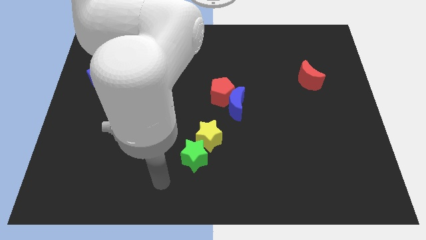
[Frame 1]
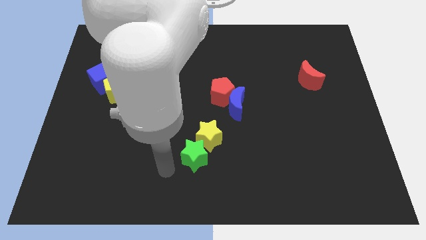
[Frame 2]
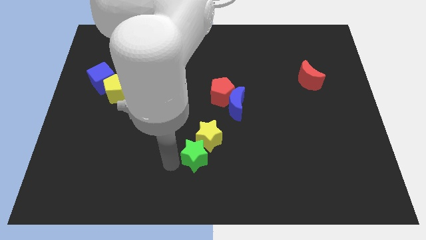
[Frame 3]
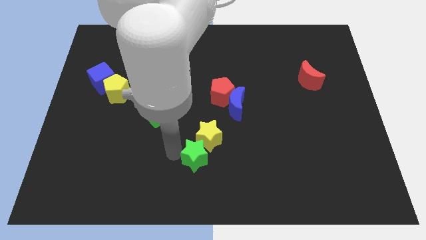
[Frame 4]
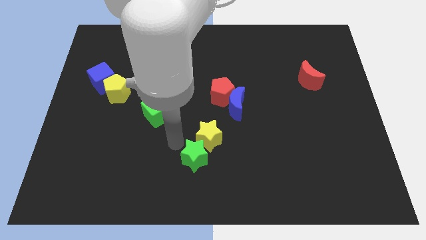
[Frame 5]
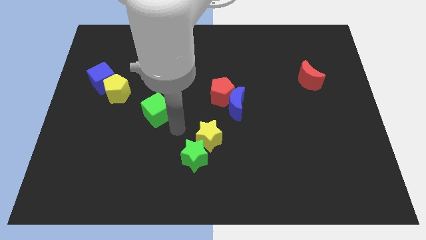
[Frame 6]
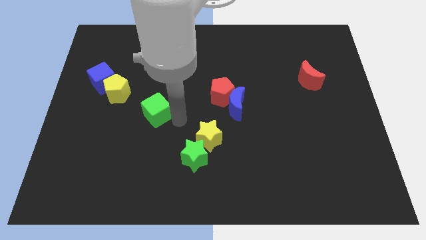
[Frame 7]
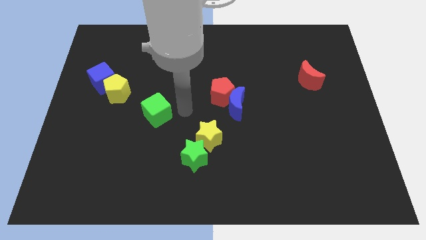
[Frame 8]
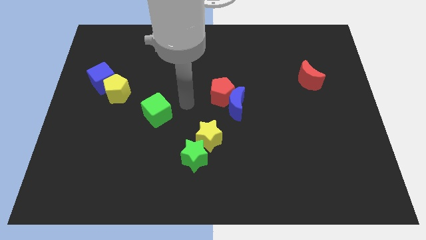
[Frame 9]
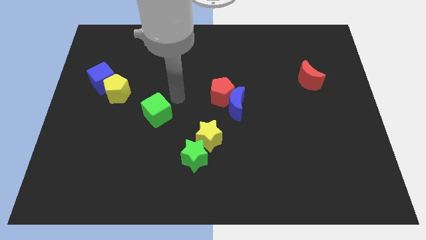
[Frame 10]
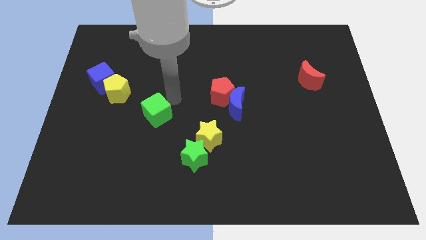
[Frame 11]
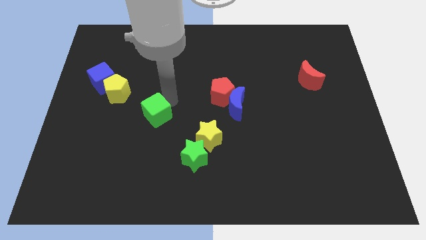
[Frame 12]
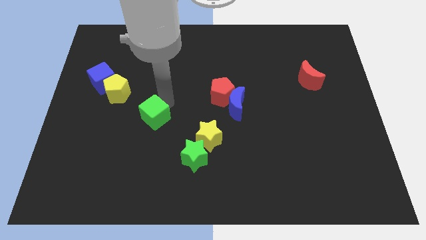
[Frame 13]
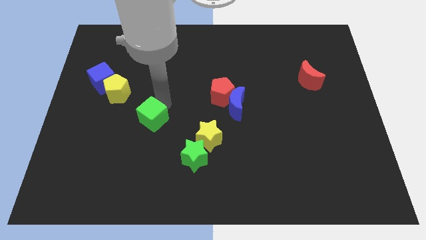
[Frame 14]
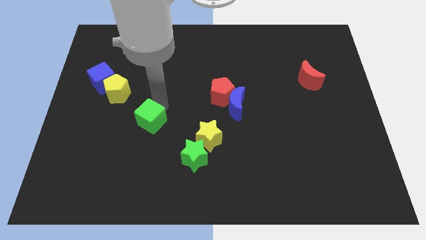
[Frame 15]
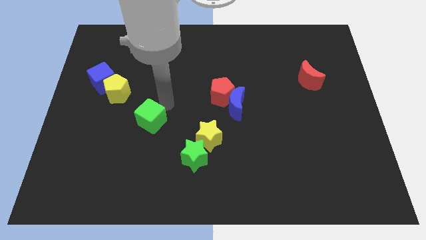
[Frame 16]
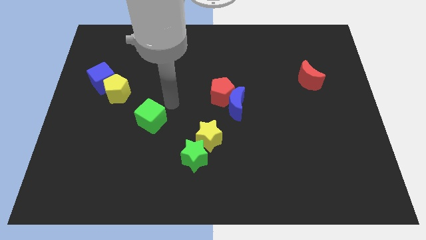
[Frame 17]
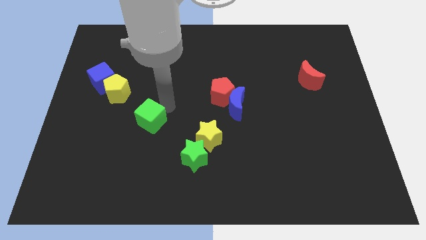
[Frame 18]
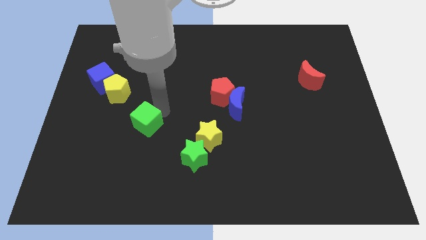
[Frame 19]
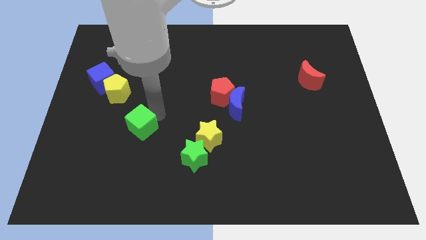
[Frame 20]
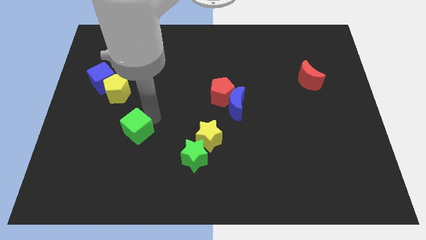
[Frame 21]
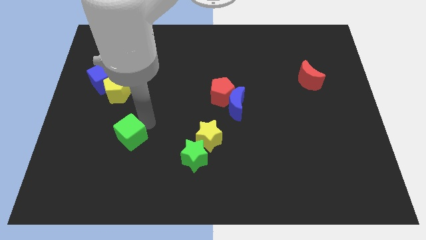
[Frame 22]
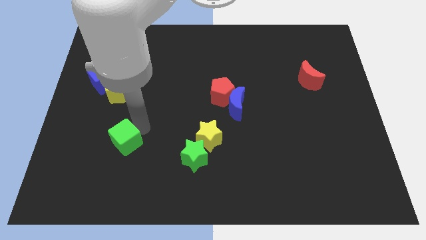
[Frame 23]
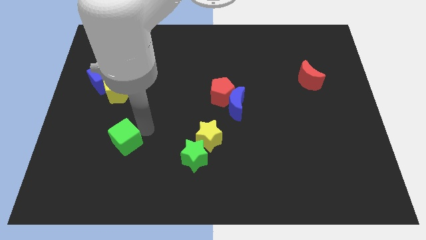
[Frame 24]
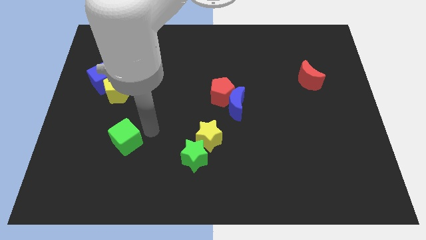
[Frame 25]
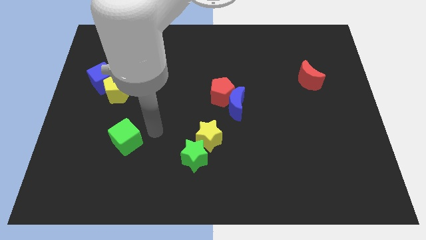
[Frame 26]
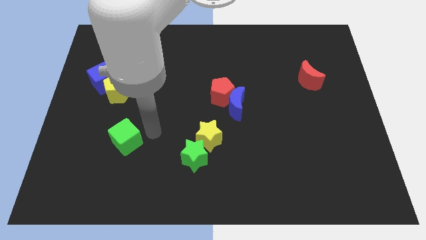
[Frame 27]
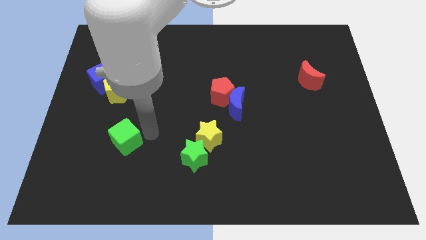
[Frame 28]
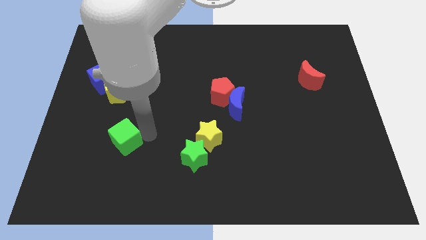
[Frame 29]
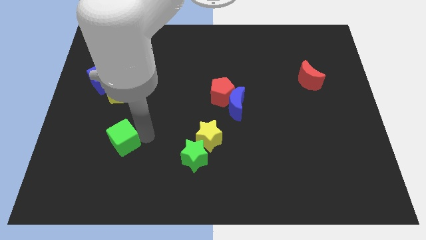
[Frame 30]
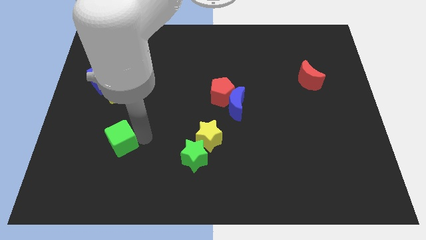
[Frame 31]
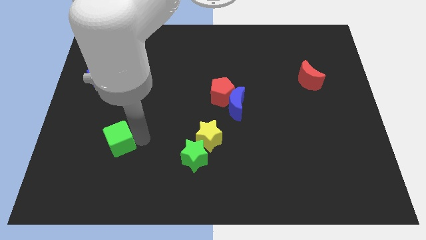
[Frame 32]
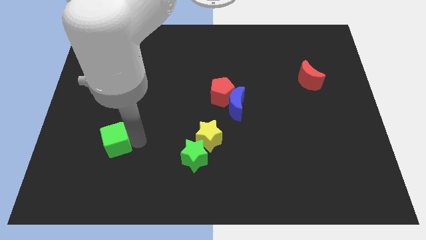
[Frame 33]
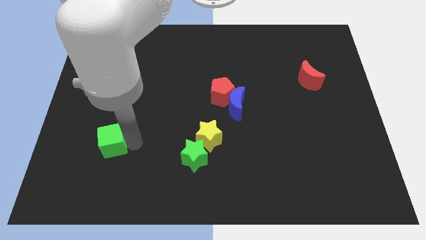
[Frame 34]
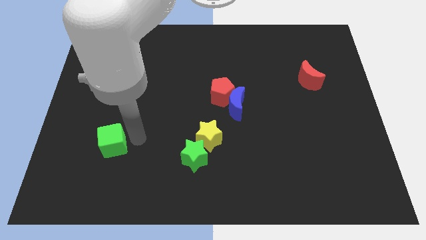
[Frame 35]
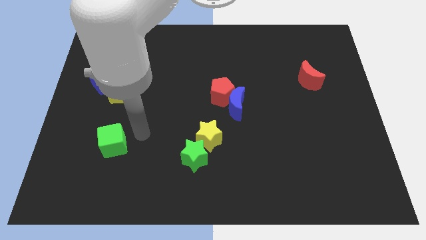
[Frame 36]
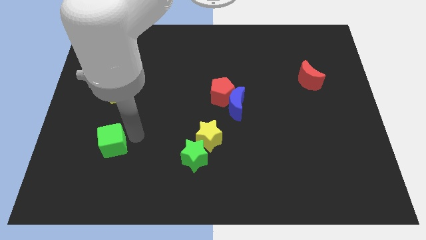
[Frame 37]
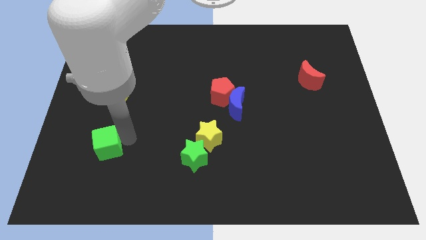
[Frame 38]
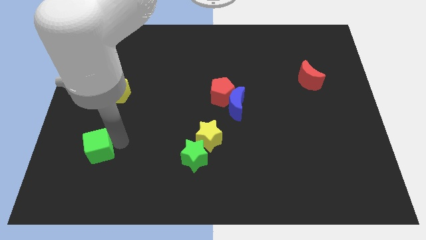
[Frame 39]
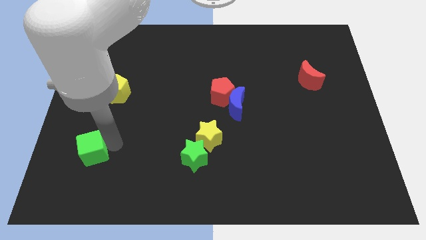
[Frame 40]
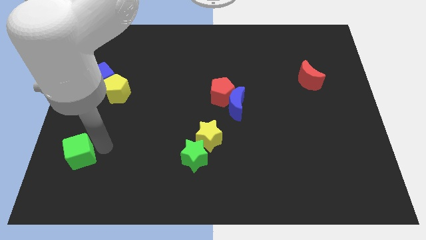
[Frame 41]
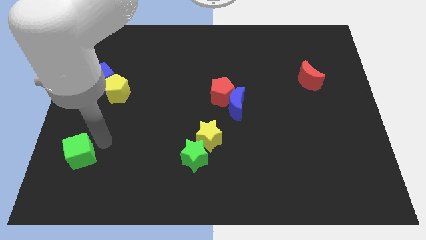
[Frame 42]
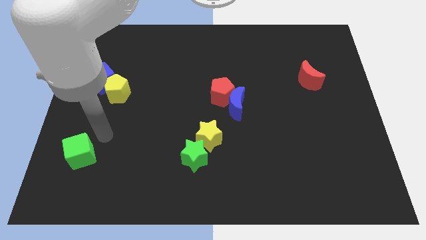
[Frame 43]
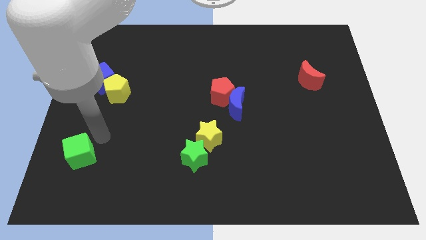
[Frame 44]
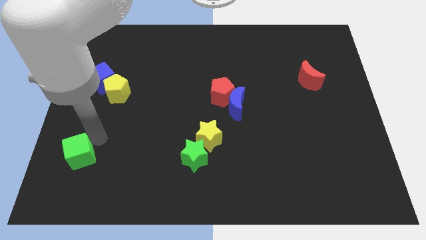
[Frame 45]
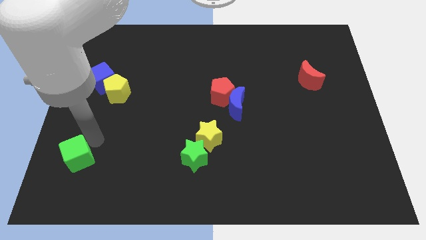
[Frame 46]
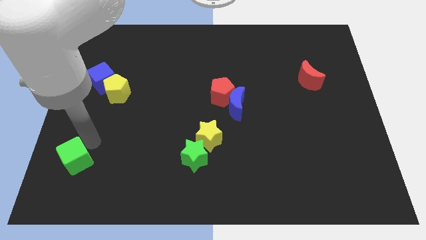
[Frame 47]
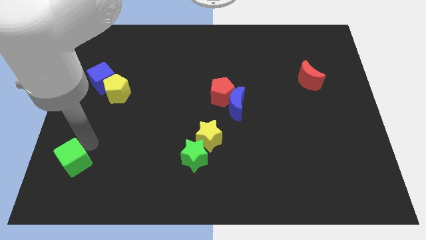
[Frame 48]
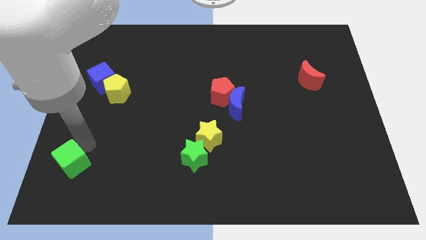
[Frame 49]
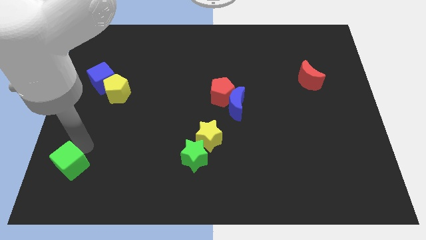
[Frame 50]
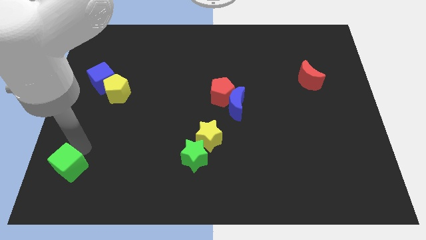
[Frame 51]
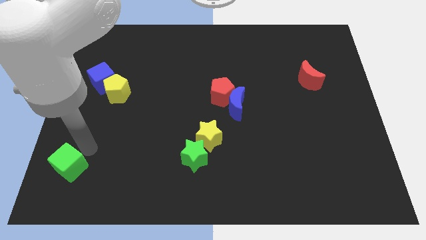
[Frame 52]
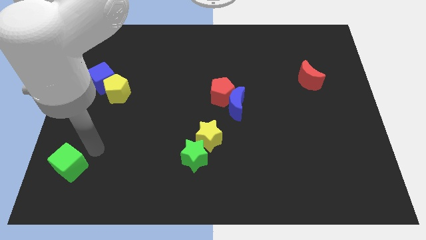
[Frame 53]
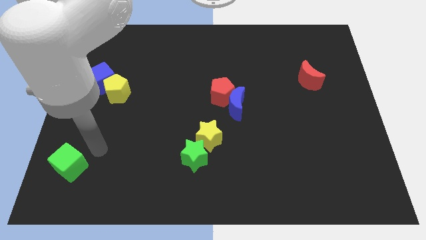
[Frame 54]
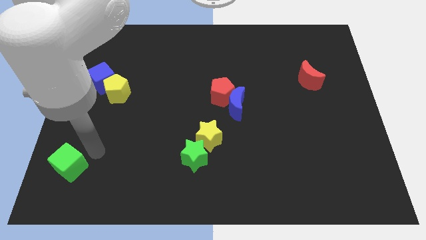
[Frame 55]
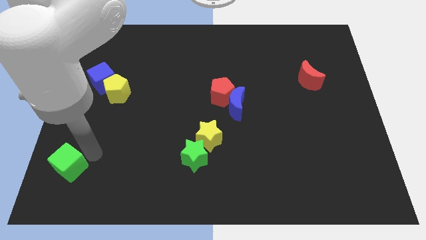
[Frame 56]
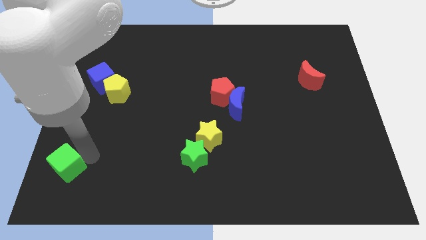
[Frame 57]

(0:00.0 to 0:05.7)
put the green cube to the bottom left
